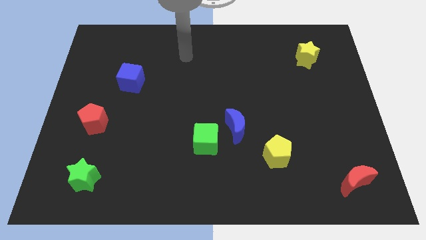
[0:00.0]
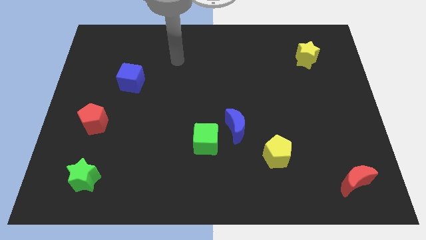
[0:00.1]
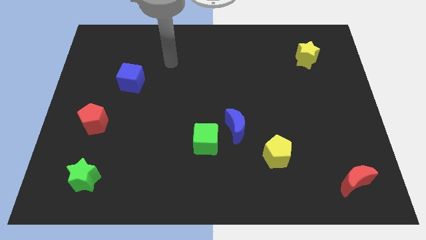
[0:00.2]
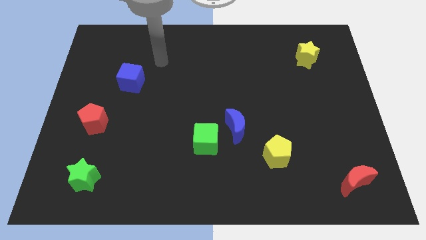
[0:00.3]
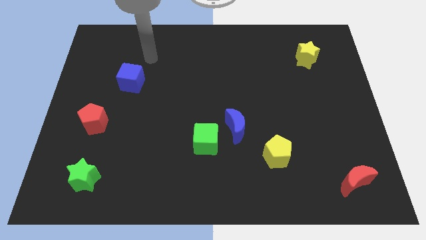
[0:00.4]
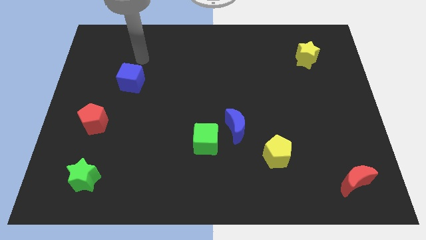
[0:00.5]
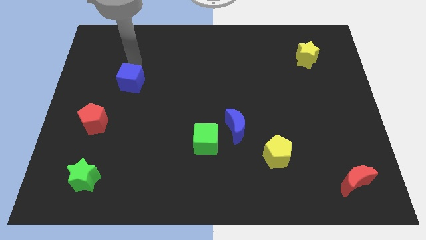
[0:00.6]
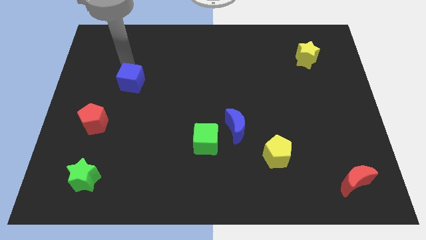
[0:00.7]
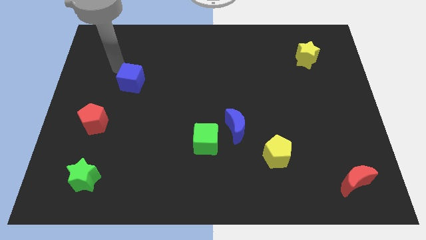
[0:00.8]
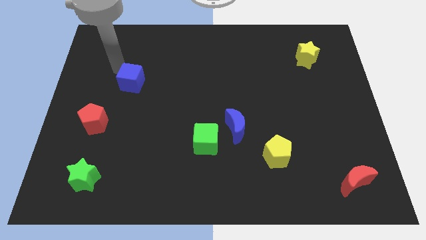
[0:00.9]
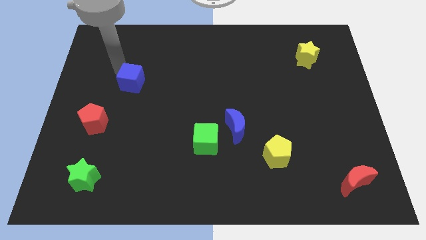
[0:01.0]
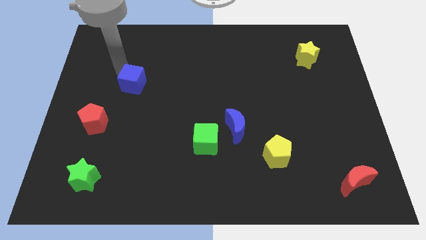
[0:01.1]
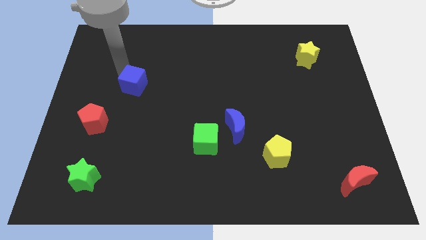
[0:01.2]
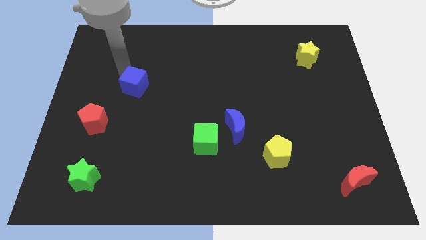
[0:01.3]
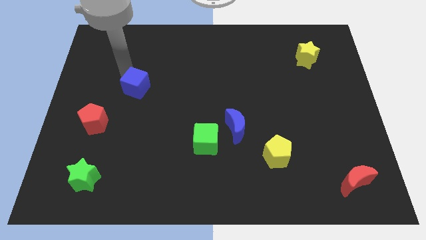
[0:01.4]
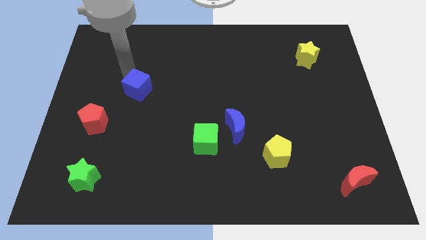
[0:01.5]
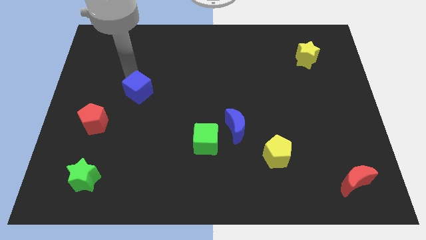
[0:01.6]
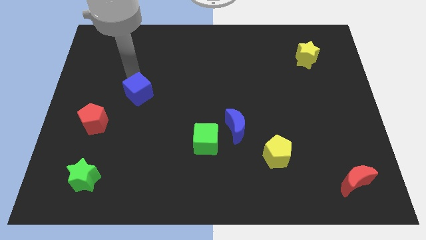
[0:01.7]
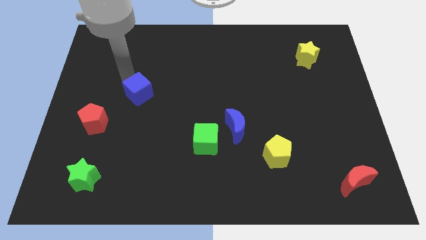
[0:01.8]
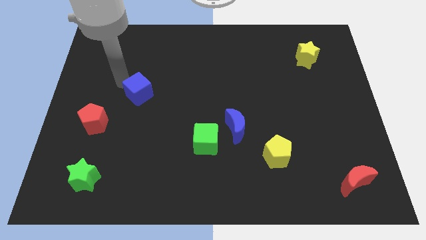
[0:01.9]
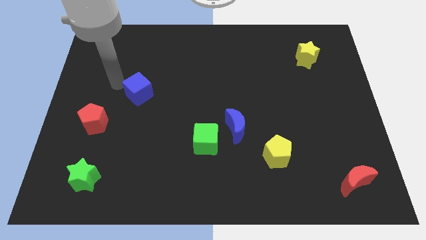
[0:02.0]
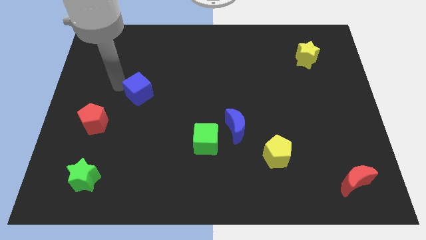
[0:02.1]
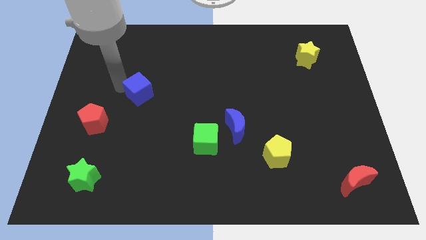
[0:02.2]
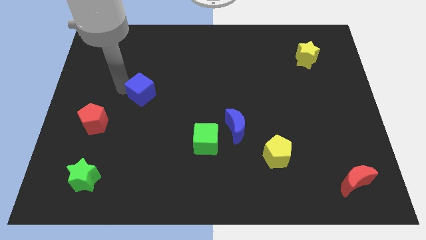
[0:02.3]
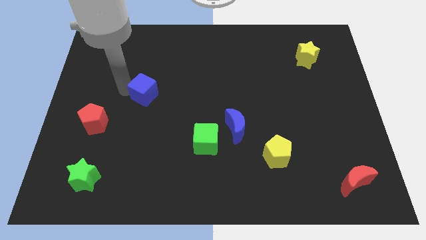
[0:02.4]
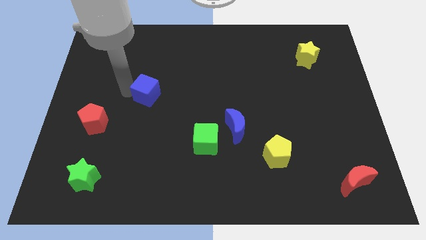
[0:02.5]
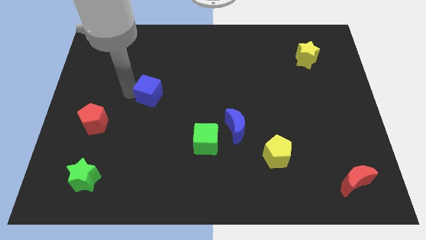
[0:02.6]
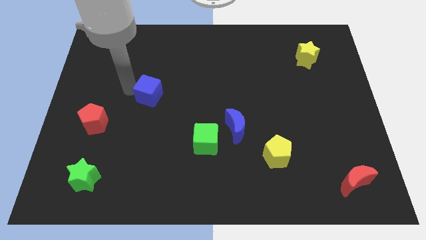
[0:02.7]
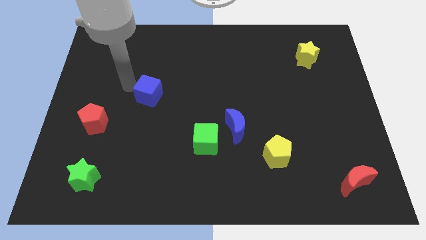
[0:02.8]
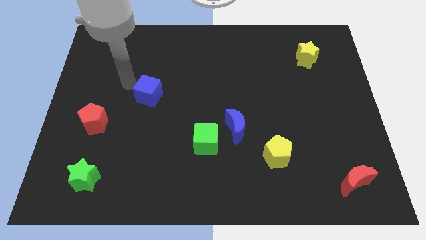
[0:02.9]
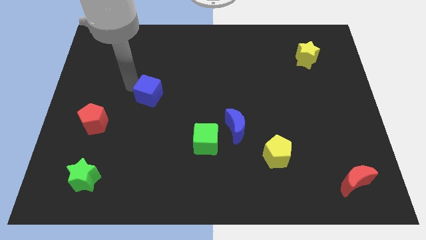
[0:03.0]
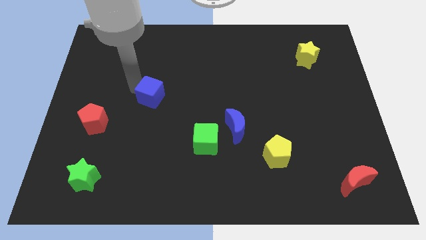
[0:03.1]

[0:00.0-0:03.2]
push the blue cube slightly diagonally down and right

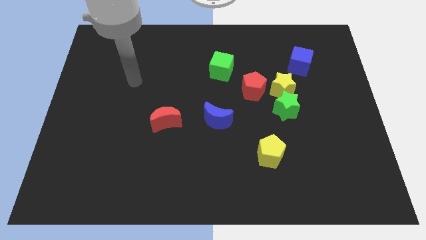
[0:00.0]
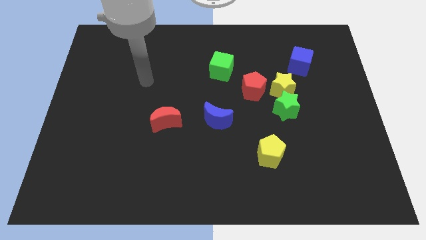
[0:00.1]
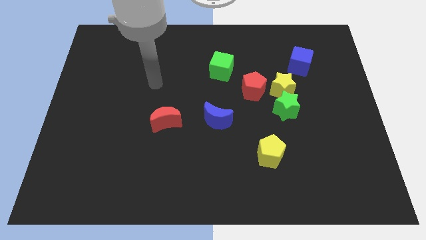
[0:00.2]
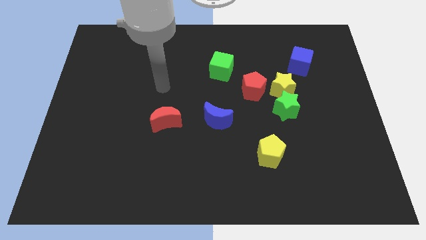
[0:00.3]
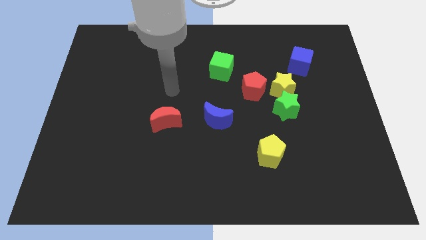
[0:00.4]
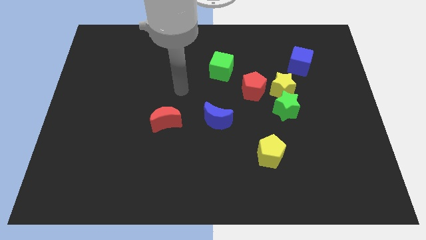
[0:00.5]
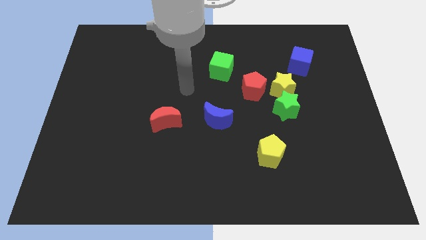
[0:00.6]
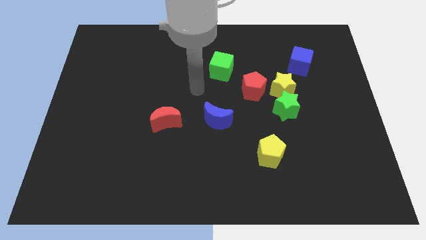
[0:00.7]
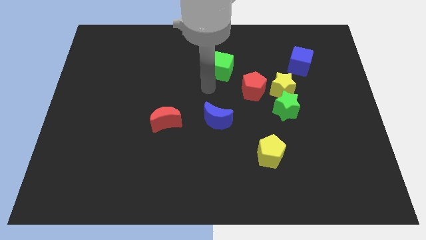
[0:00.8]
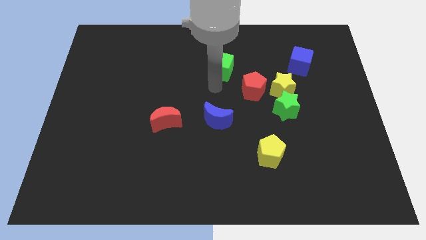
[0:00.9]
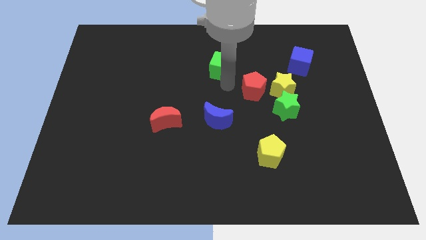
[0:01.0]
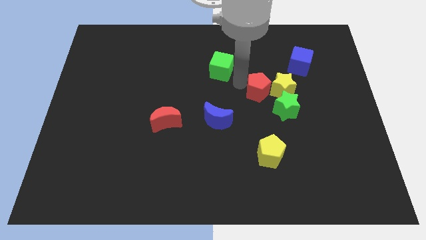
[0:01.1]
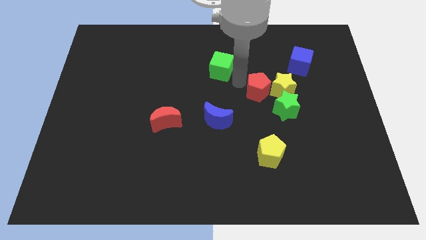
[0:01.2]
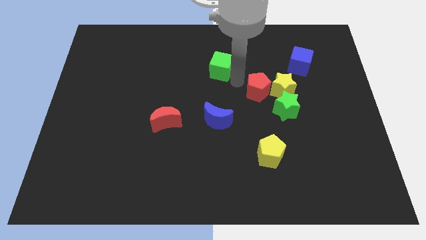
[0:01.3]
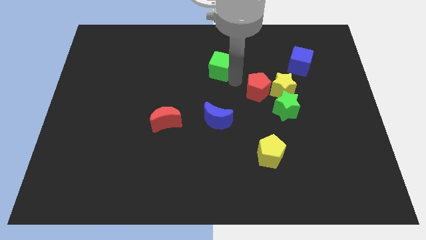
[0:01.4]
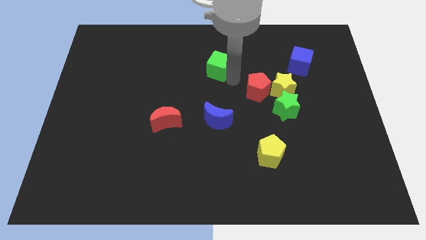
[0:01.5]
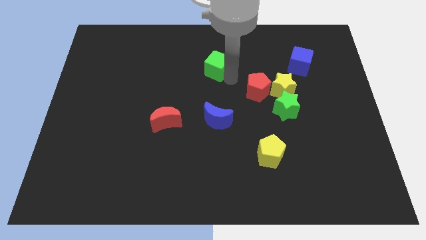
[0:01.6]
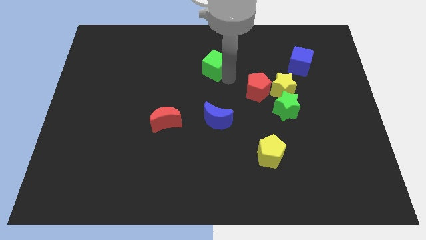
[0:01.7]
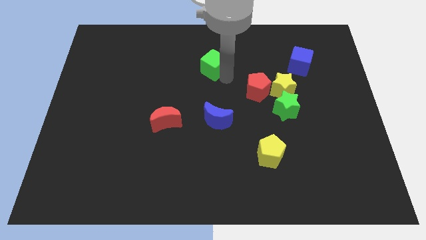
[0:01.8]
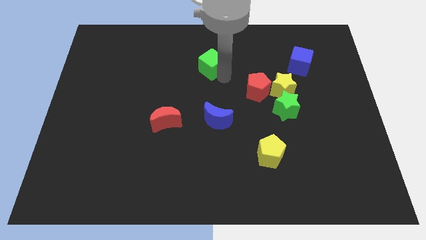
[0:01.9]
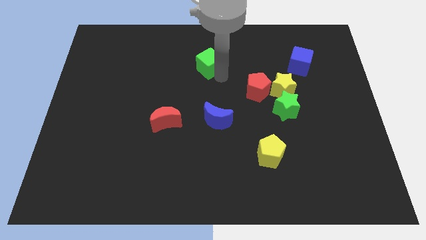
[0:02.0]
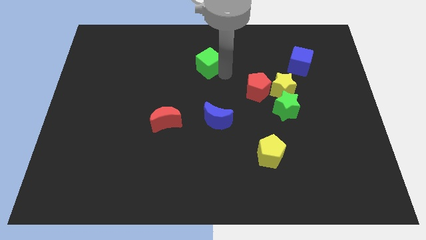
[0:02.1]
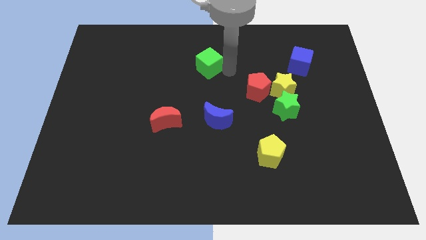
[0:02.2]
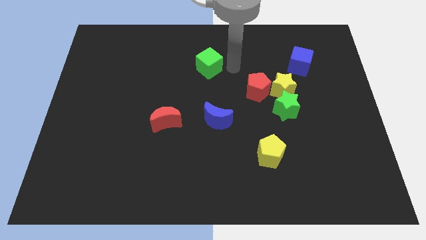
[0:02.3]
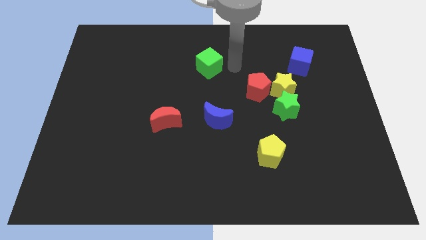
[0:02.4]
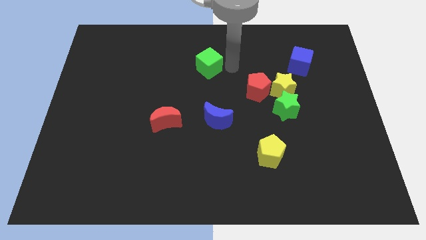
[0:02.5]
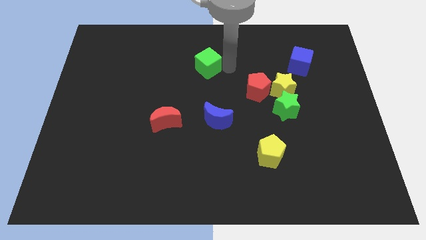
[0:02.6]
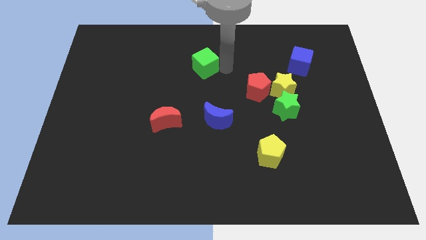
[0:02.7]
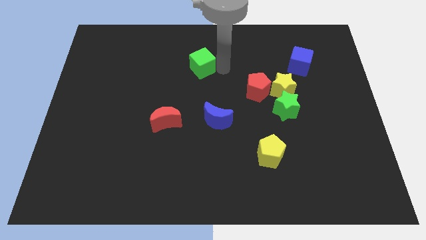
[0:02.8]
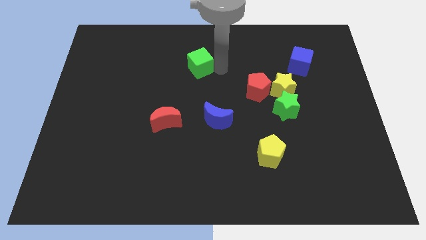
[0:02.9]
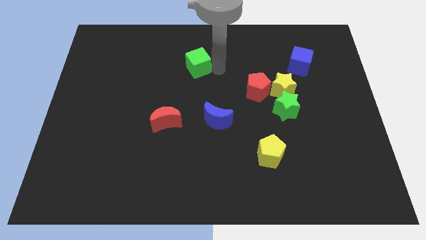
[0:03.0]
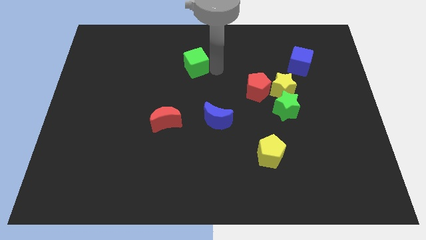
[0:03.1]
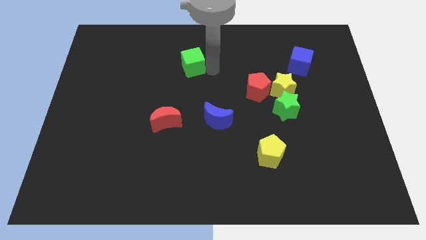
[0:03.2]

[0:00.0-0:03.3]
slide the green cube left slightly

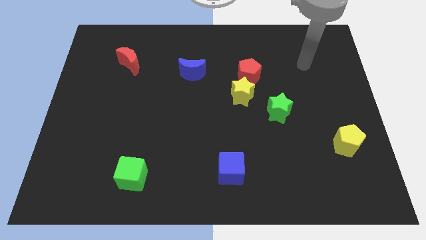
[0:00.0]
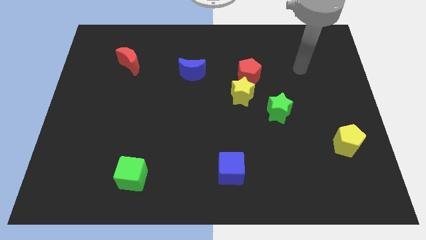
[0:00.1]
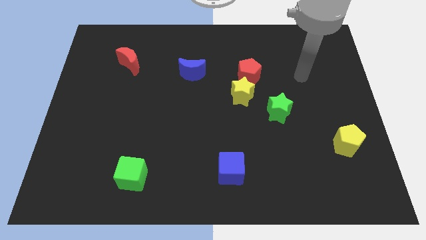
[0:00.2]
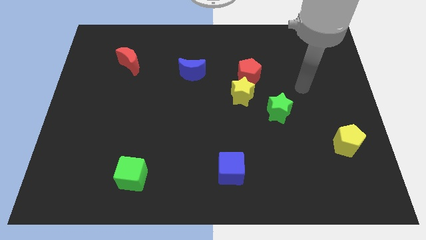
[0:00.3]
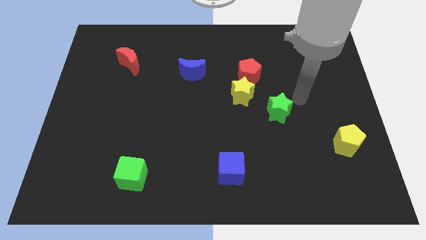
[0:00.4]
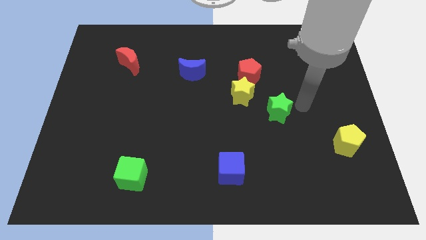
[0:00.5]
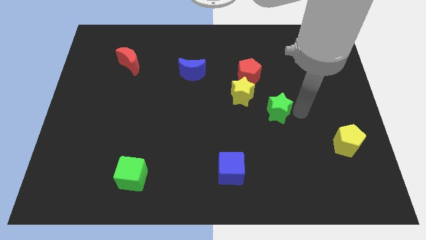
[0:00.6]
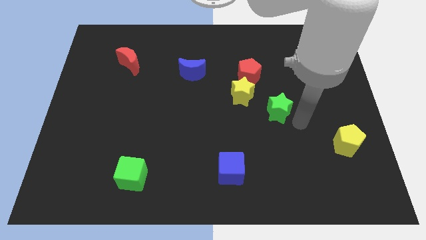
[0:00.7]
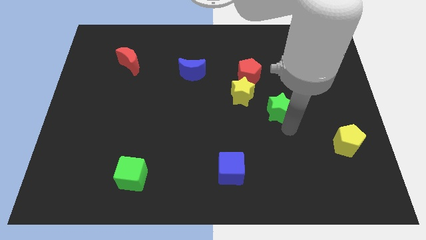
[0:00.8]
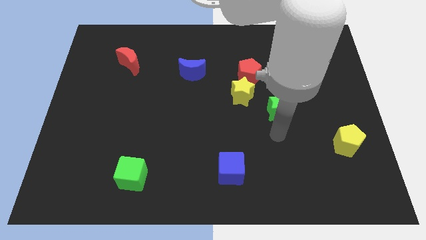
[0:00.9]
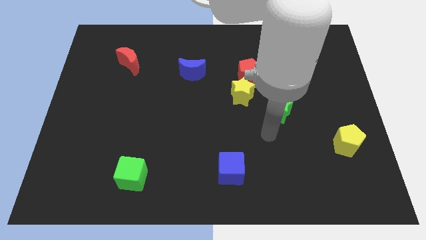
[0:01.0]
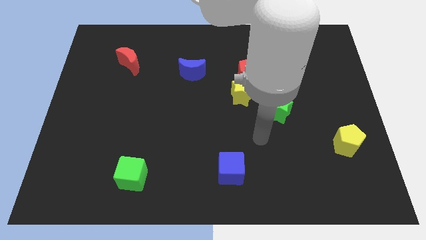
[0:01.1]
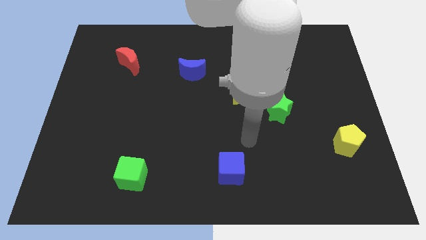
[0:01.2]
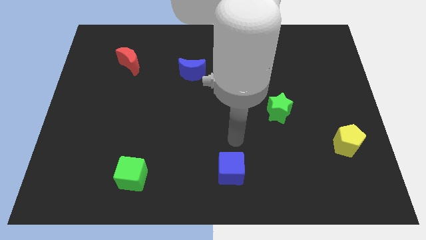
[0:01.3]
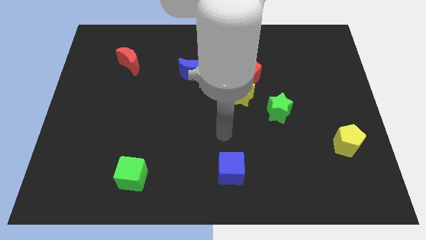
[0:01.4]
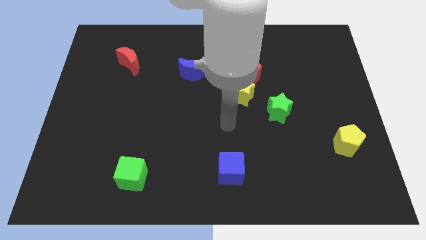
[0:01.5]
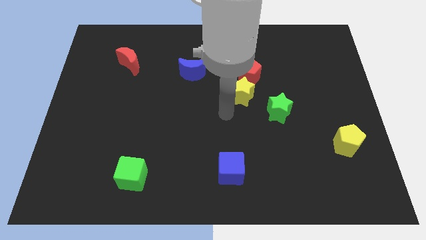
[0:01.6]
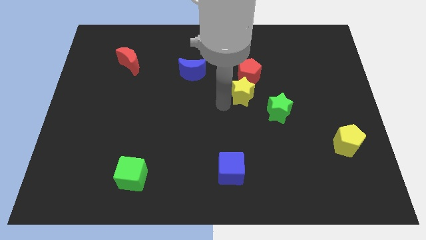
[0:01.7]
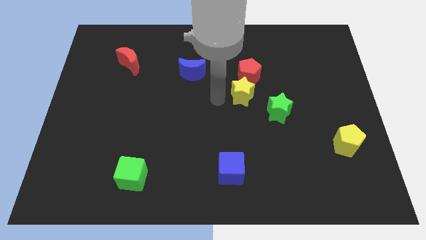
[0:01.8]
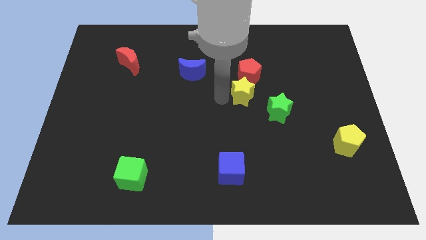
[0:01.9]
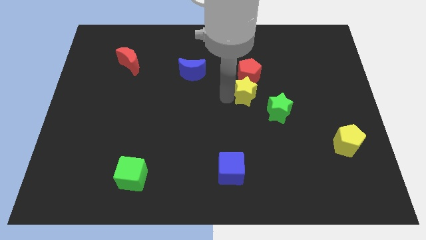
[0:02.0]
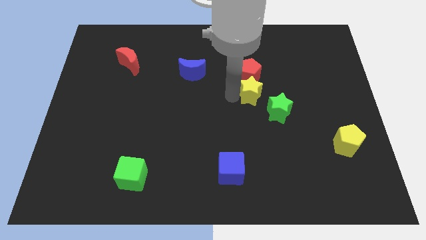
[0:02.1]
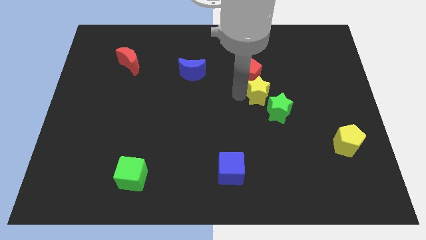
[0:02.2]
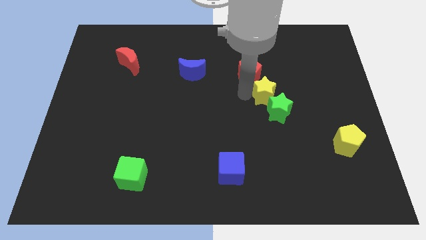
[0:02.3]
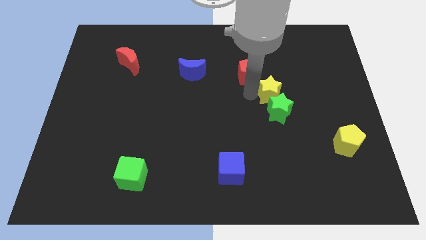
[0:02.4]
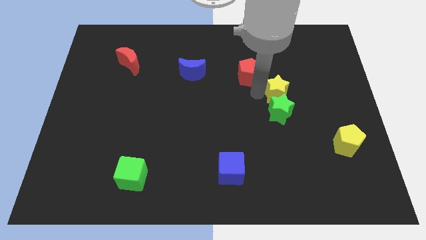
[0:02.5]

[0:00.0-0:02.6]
slightly push the yellow star to the right
